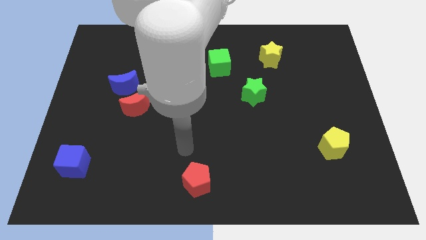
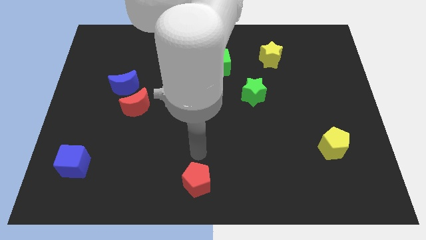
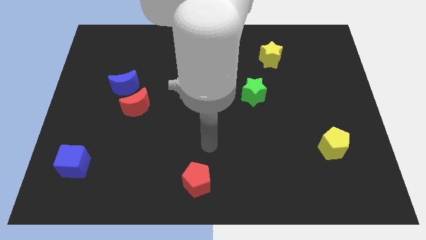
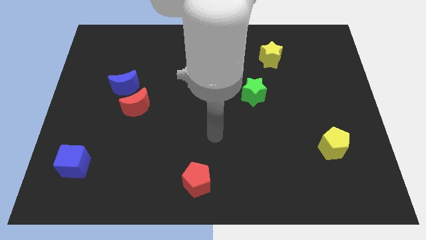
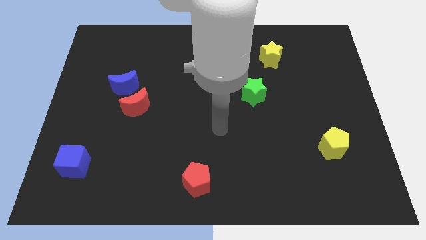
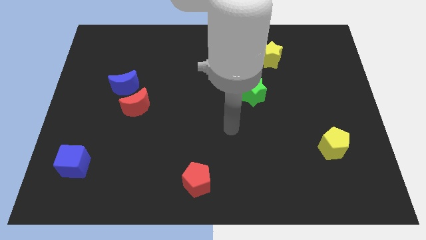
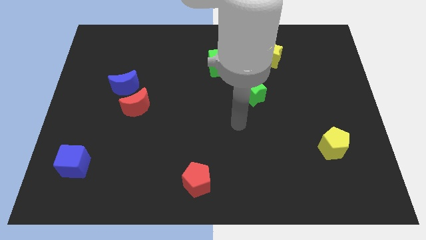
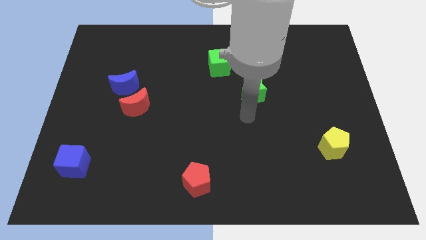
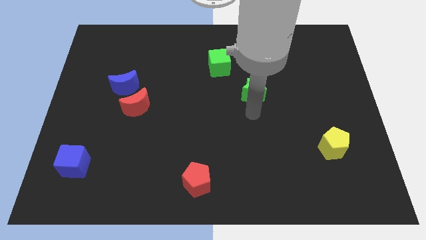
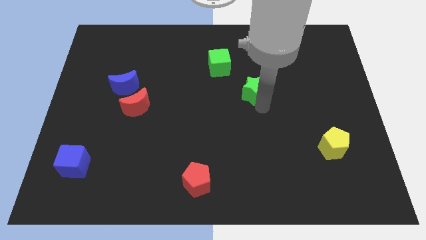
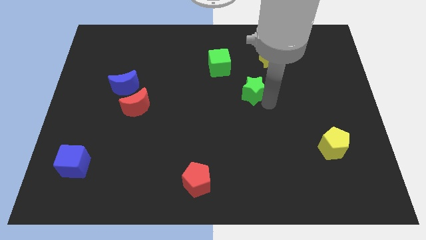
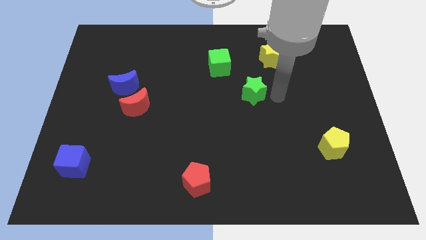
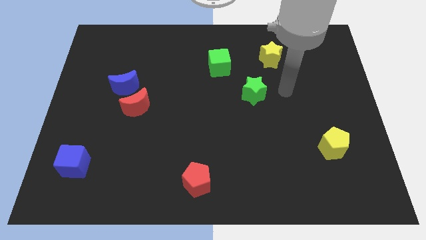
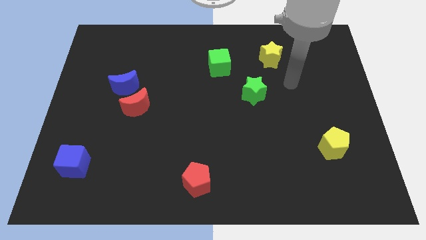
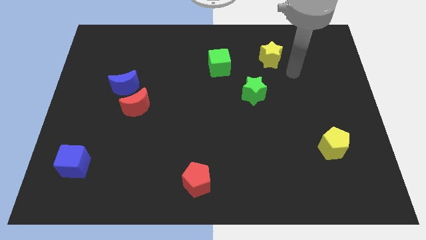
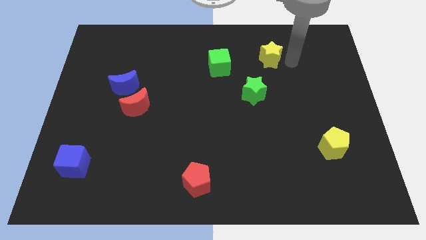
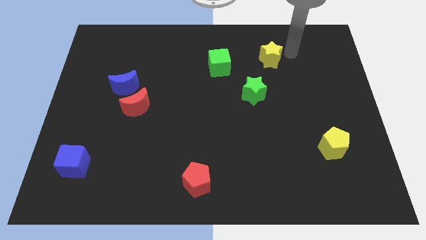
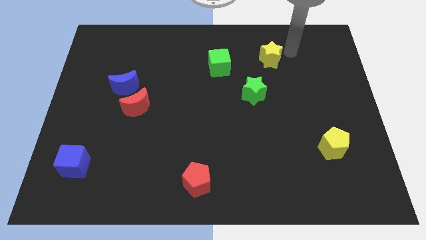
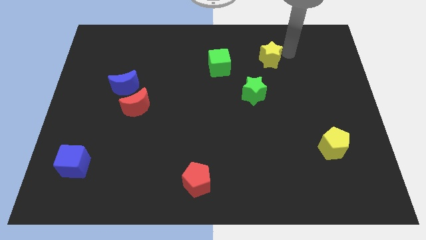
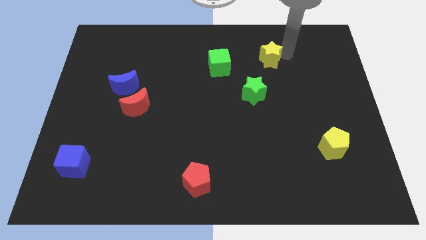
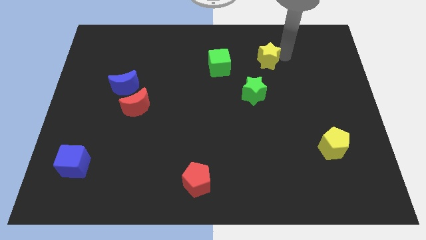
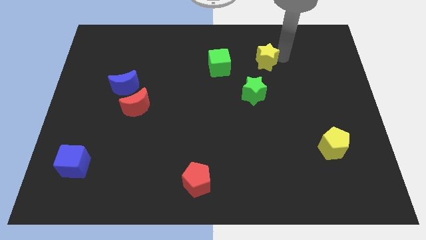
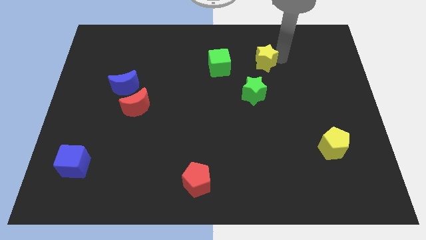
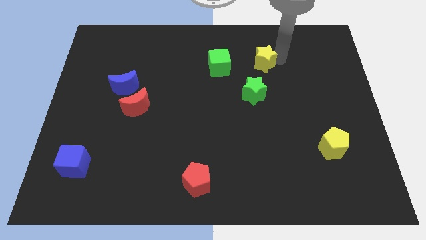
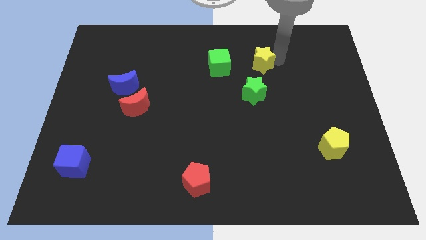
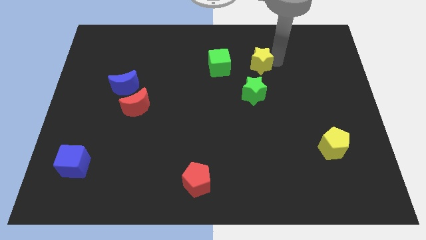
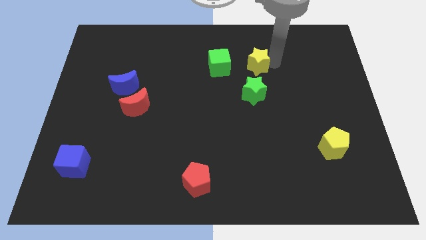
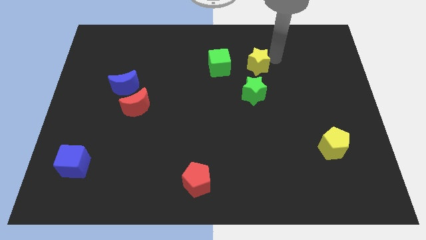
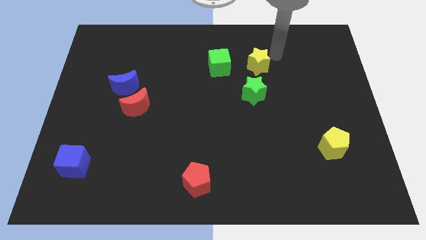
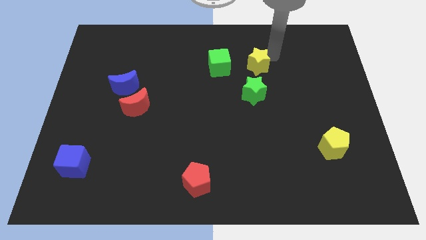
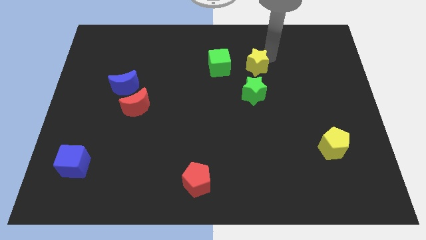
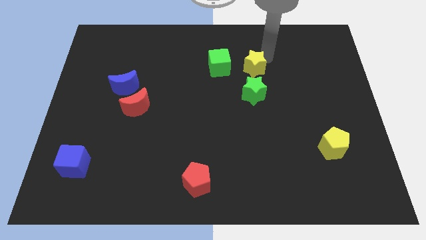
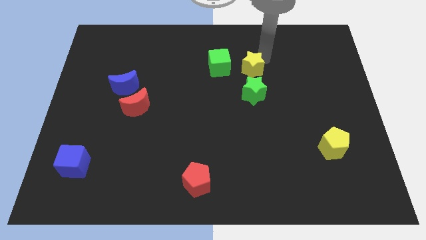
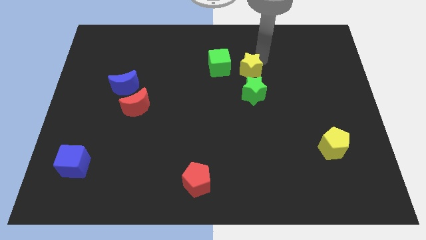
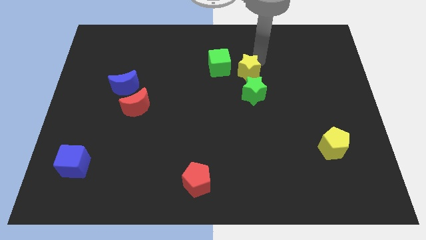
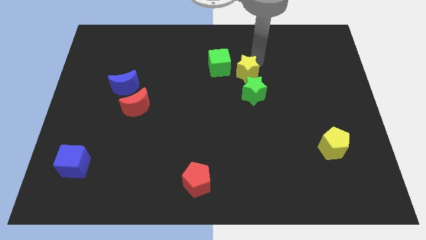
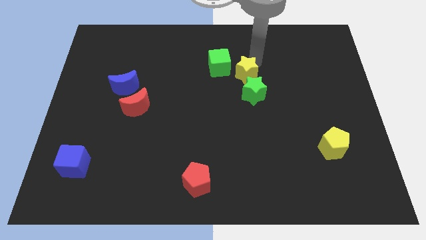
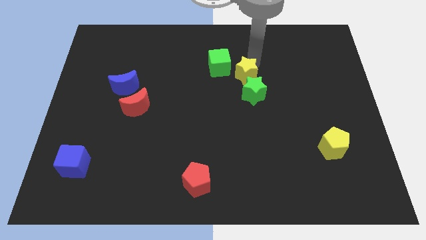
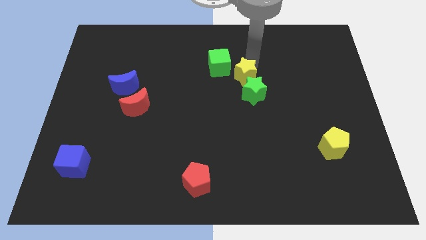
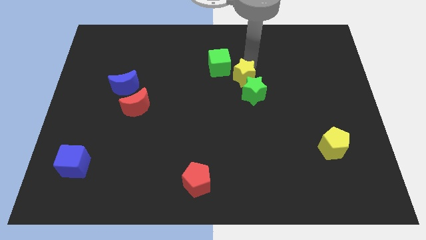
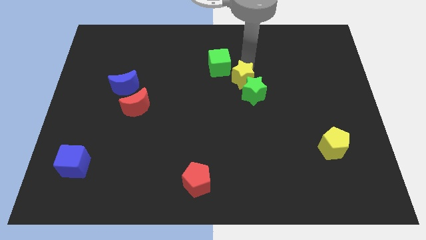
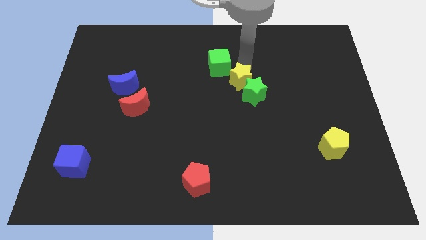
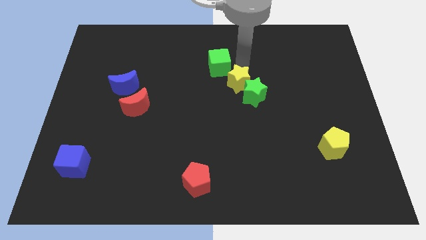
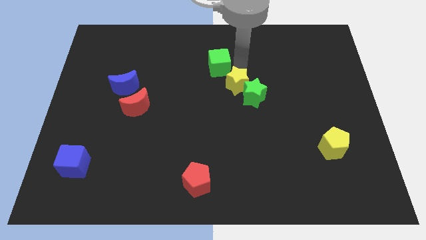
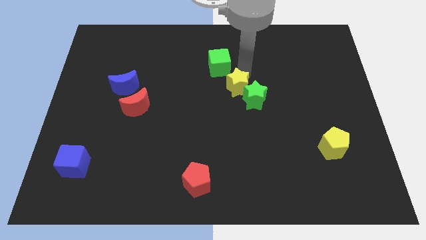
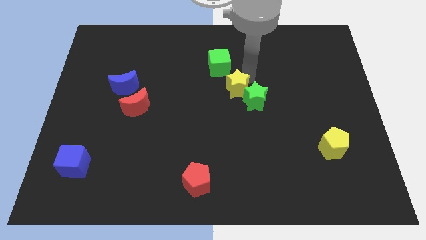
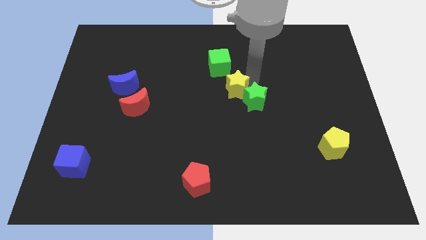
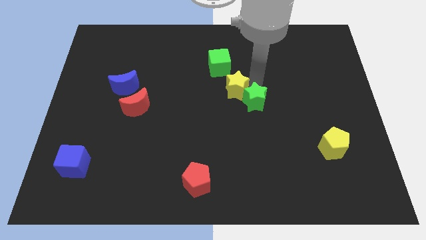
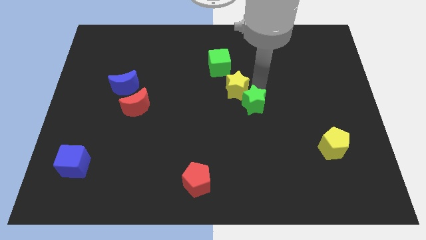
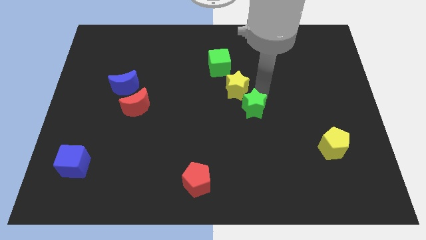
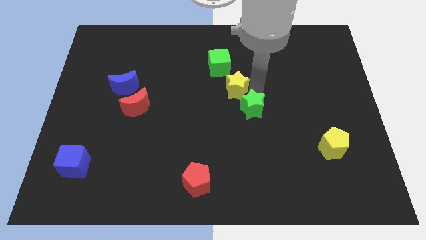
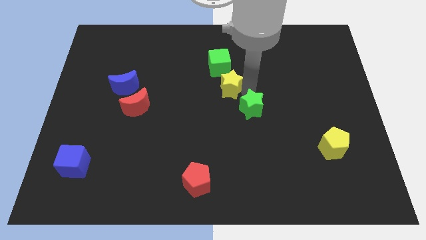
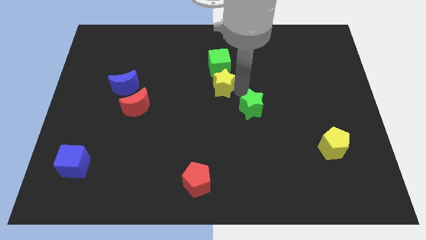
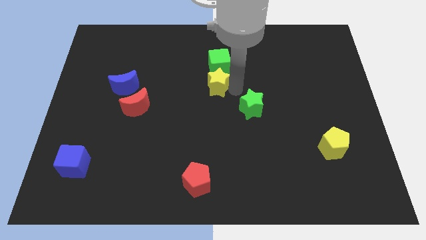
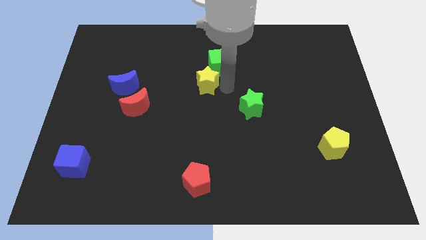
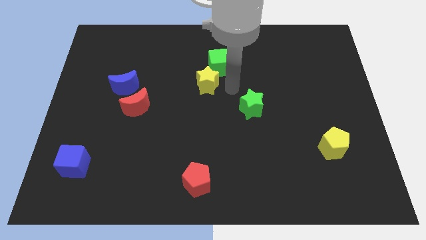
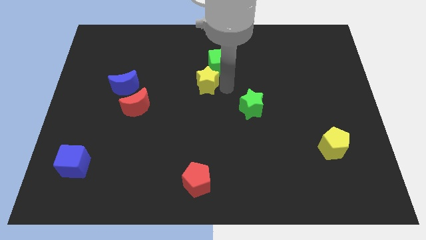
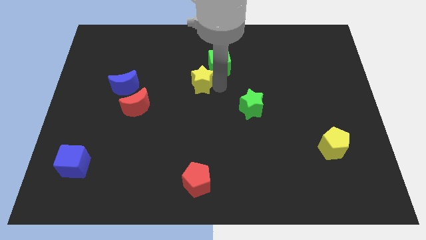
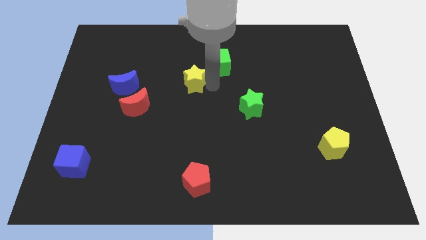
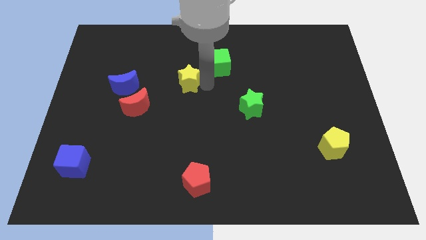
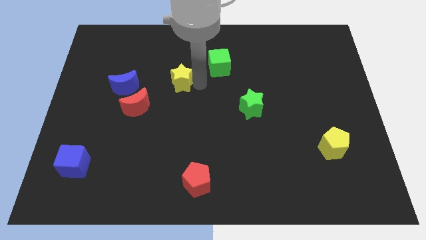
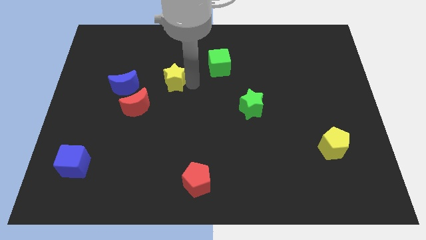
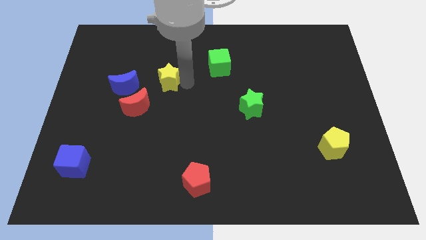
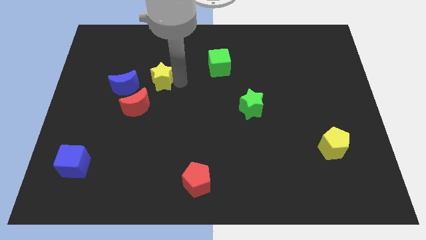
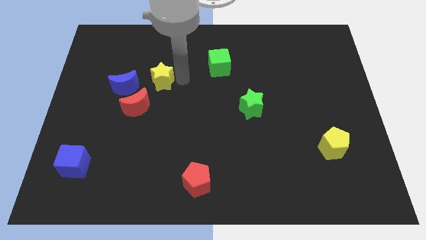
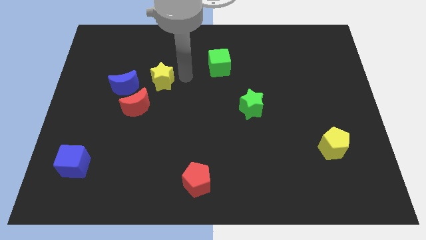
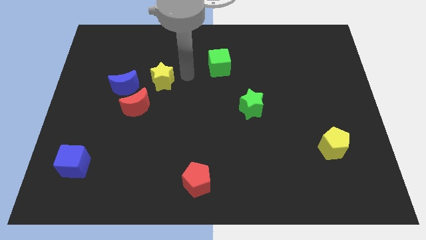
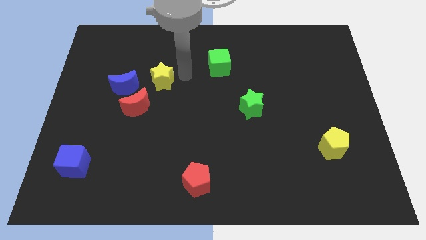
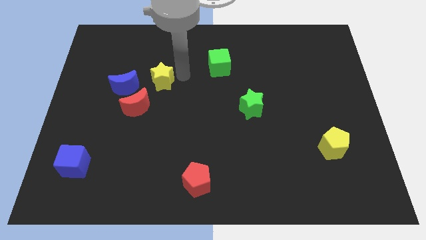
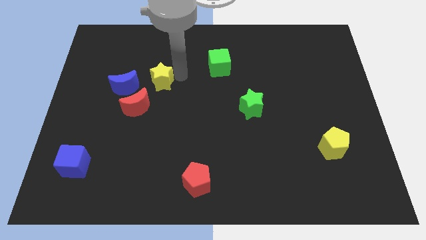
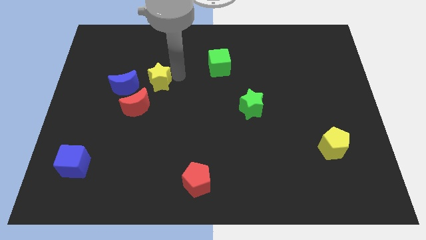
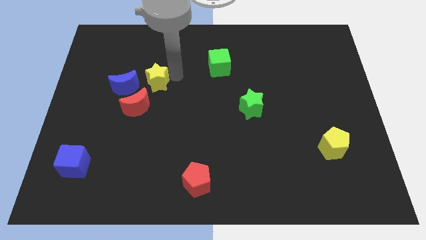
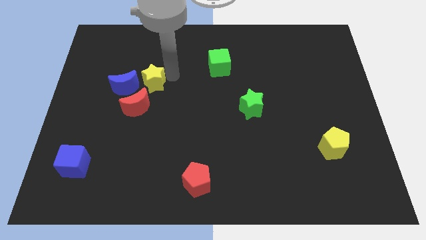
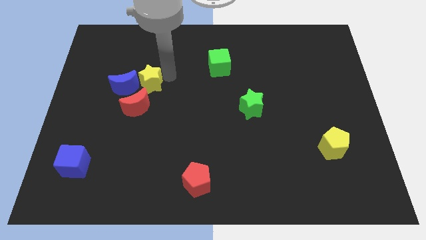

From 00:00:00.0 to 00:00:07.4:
push the yellow star next to the blue moon
